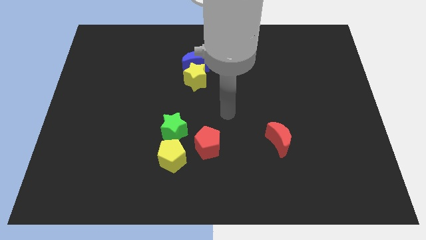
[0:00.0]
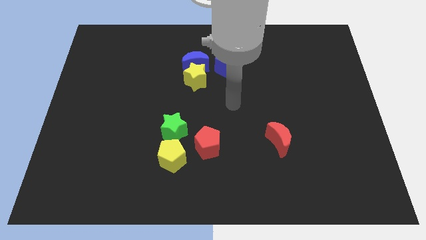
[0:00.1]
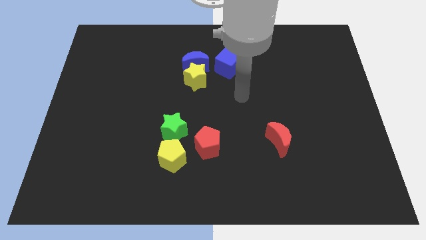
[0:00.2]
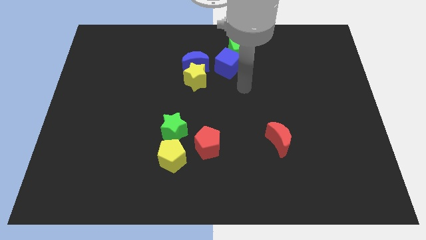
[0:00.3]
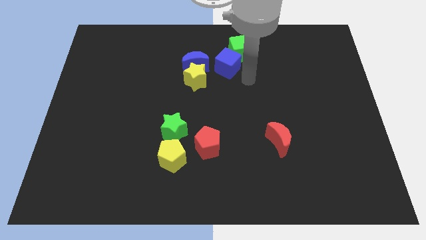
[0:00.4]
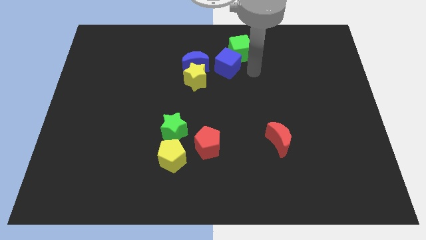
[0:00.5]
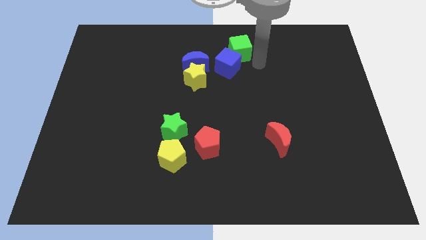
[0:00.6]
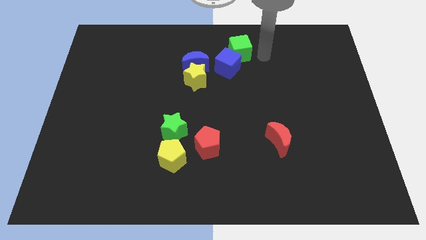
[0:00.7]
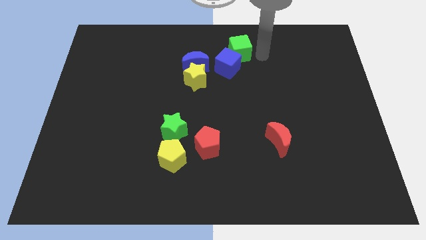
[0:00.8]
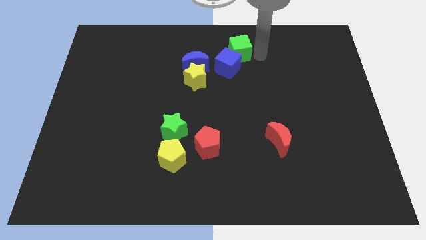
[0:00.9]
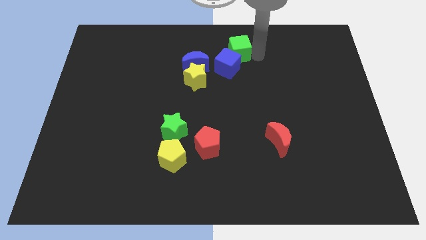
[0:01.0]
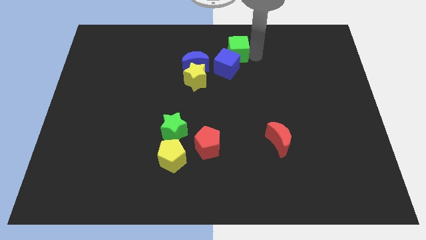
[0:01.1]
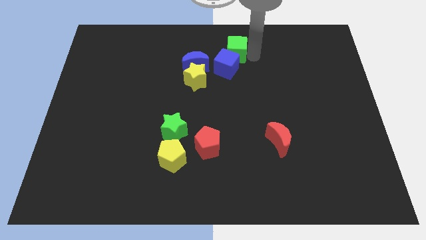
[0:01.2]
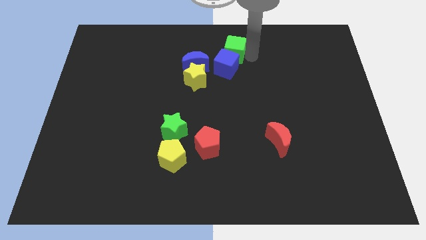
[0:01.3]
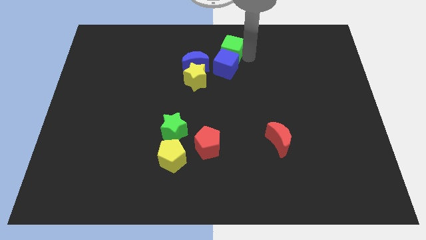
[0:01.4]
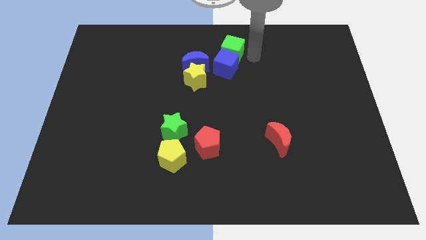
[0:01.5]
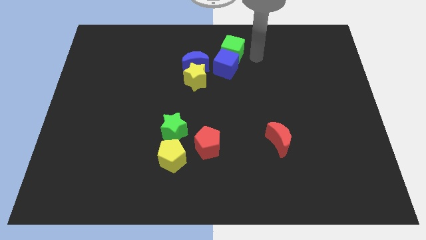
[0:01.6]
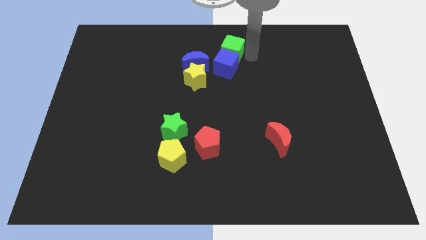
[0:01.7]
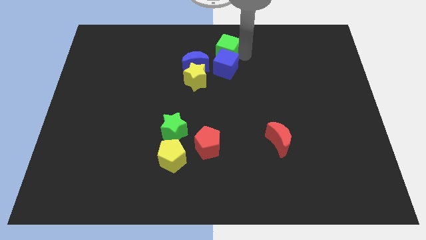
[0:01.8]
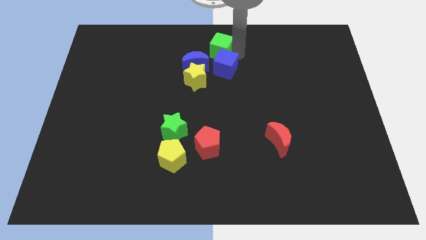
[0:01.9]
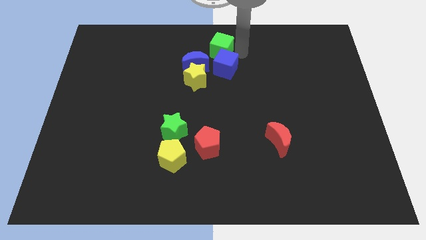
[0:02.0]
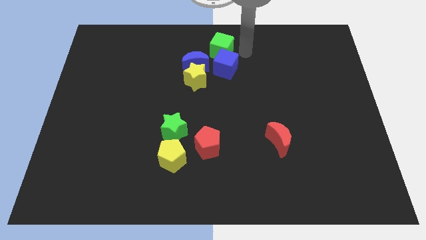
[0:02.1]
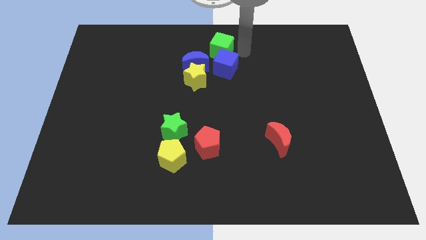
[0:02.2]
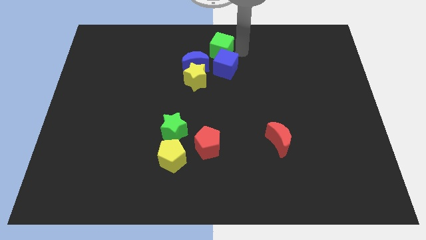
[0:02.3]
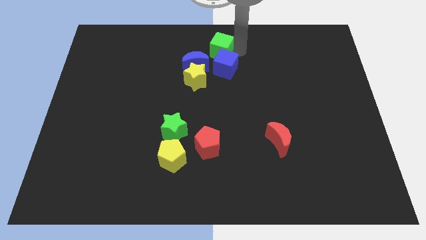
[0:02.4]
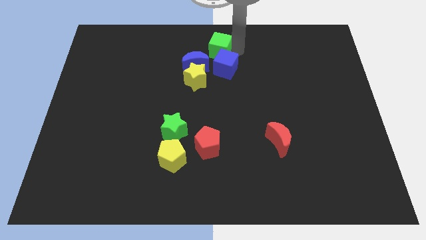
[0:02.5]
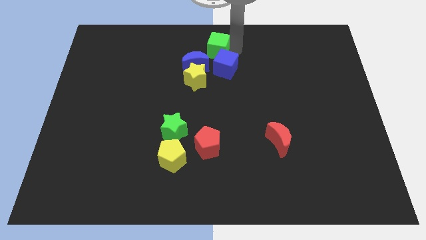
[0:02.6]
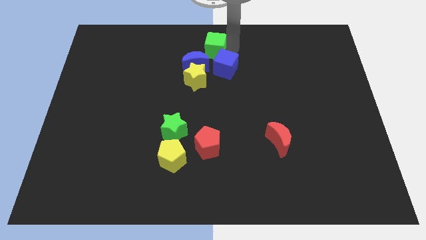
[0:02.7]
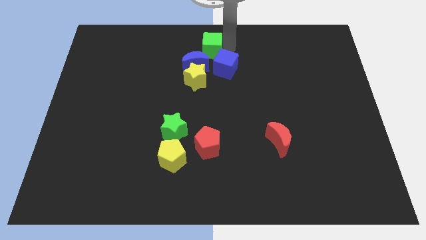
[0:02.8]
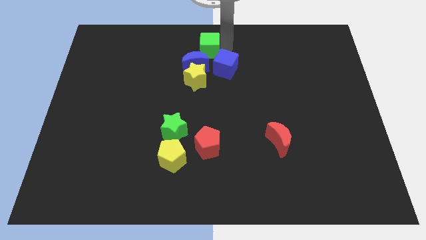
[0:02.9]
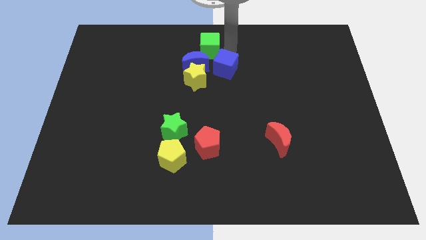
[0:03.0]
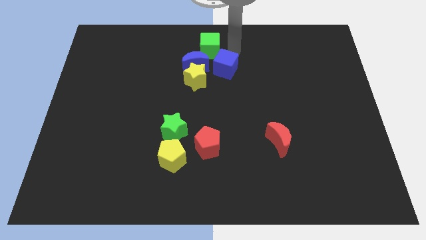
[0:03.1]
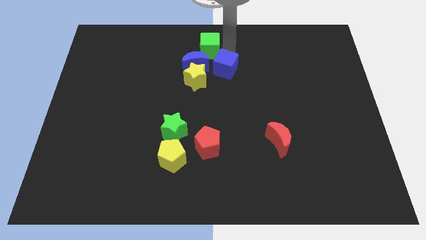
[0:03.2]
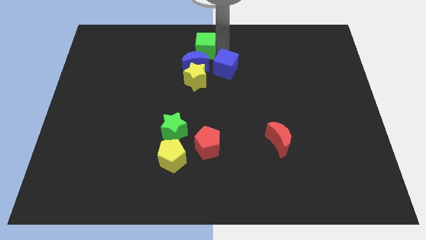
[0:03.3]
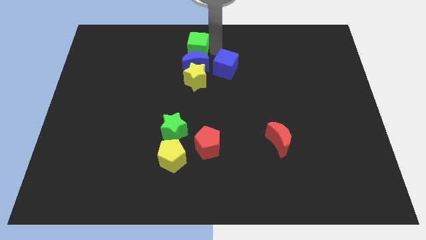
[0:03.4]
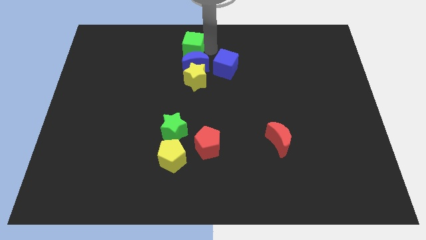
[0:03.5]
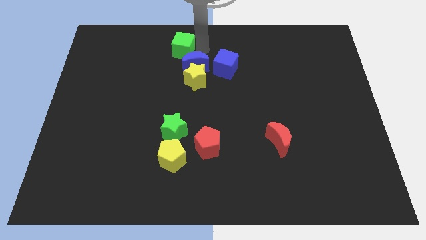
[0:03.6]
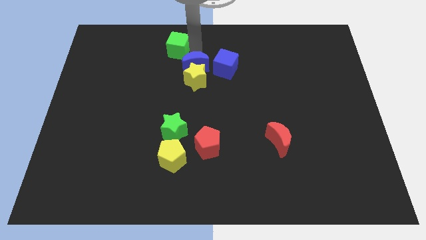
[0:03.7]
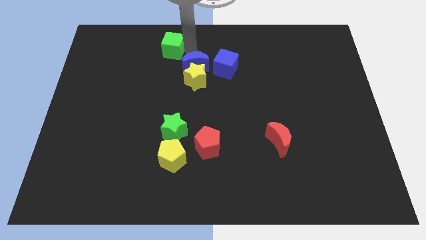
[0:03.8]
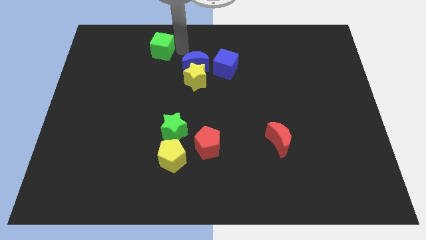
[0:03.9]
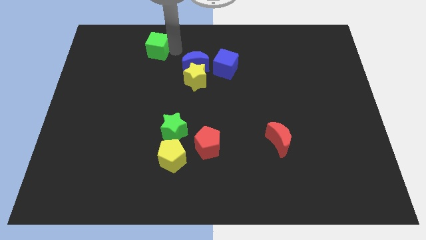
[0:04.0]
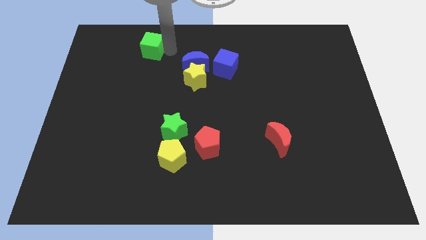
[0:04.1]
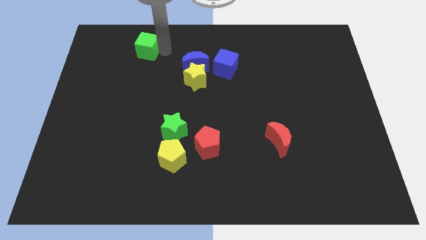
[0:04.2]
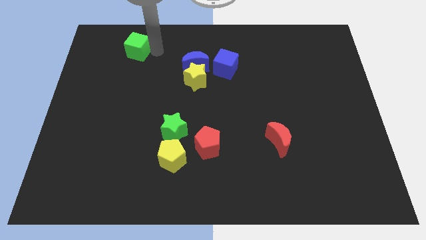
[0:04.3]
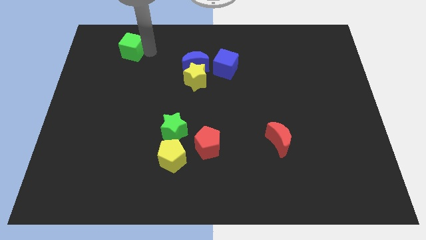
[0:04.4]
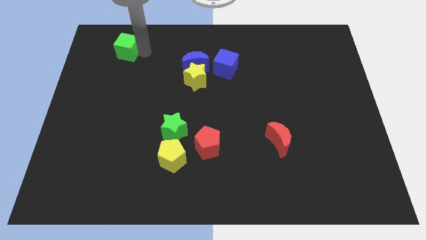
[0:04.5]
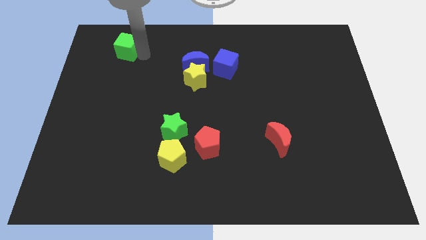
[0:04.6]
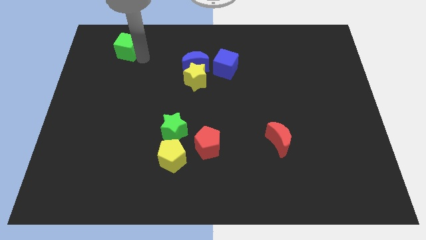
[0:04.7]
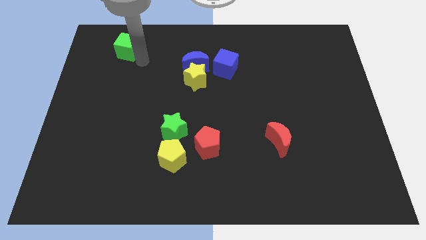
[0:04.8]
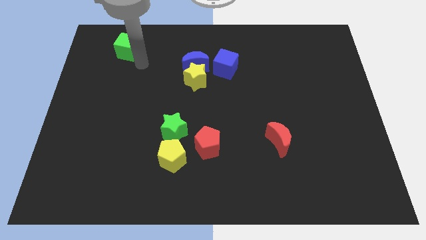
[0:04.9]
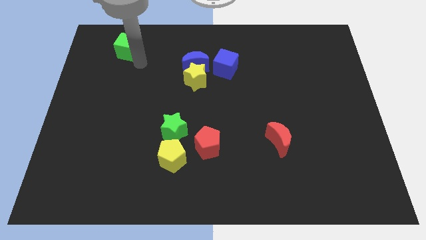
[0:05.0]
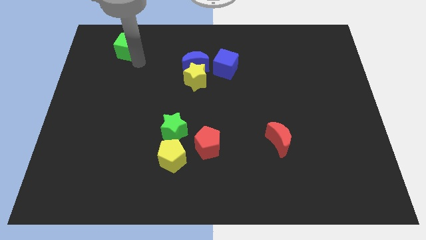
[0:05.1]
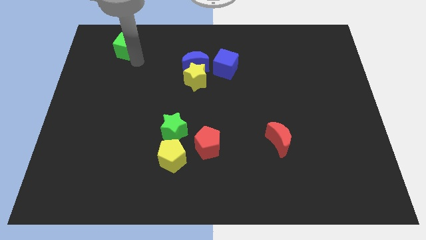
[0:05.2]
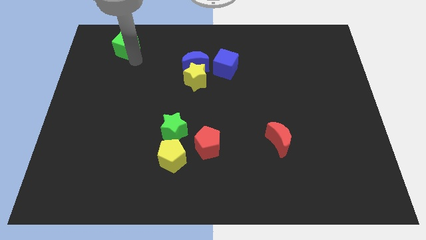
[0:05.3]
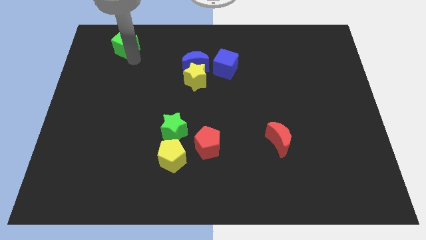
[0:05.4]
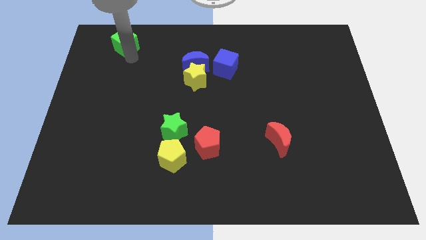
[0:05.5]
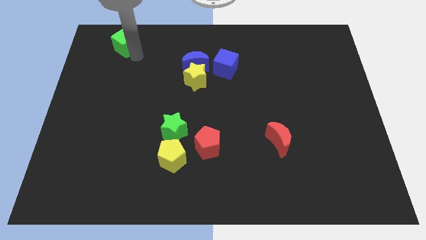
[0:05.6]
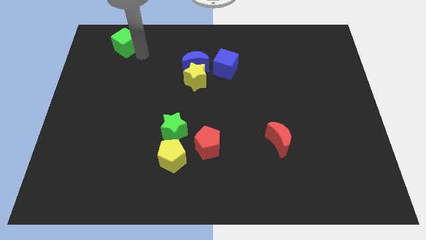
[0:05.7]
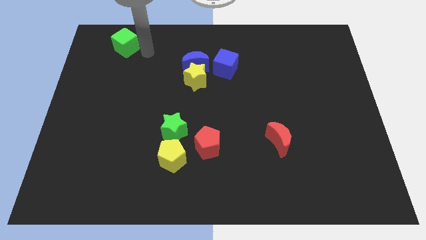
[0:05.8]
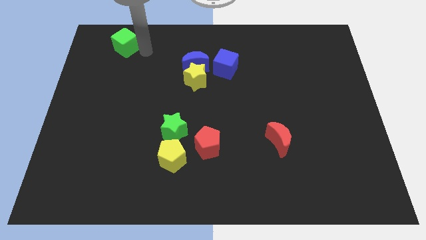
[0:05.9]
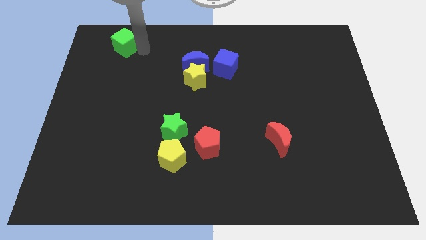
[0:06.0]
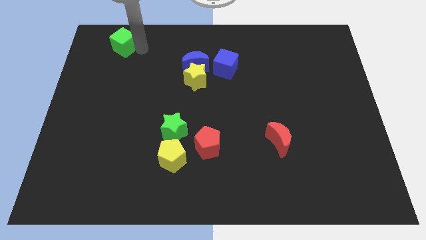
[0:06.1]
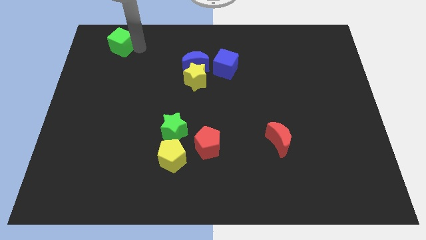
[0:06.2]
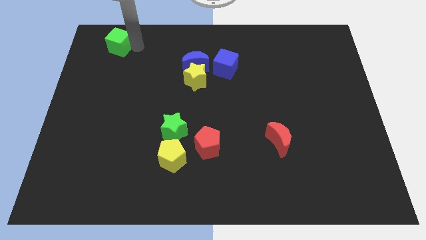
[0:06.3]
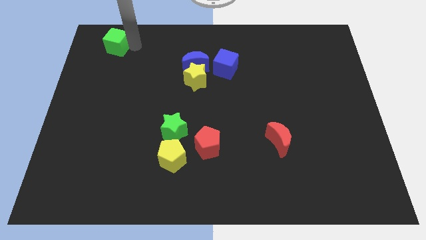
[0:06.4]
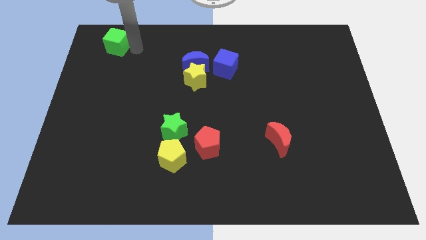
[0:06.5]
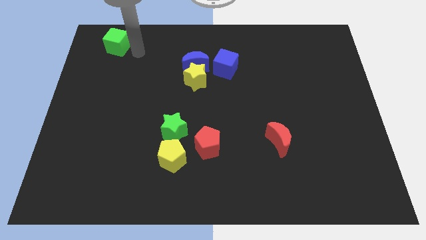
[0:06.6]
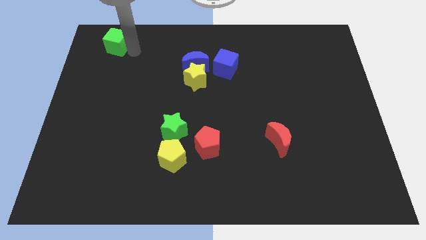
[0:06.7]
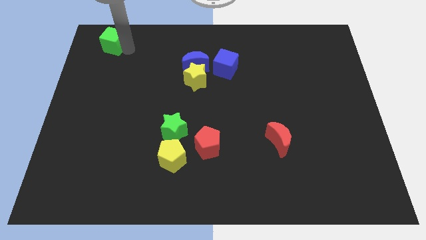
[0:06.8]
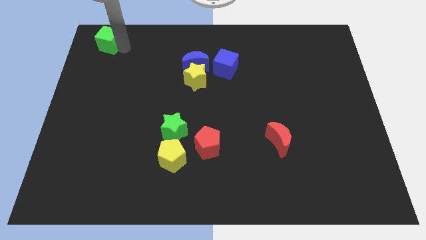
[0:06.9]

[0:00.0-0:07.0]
put the green cube to the top left corner
